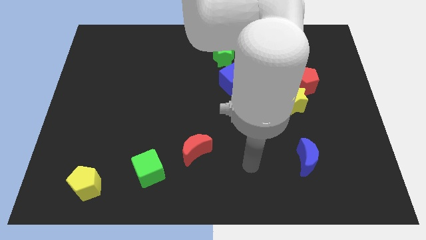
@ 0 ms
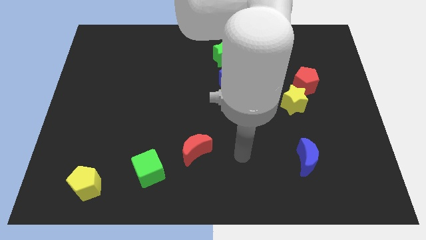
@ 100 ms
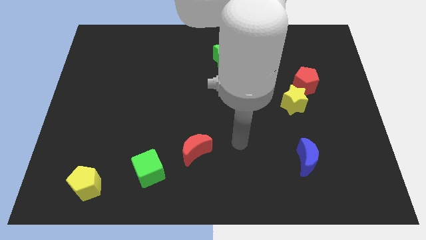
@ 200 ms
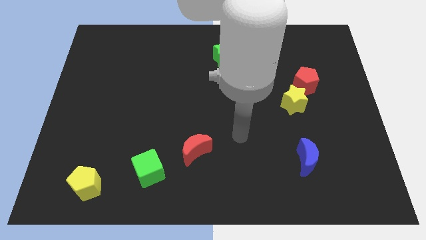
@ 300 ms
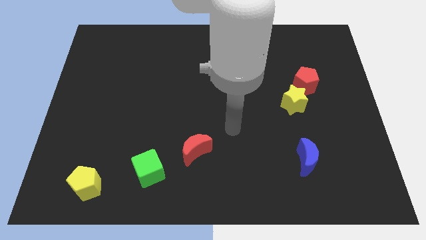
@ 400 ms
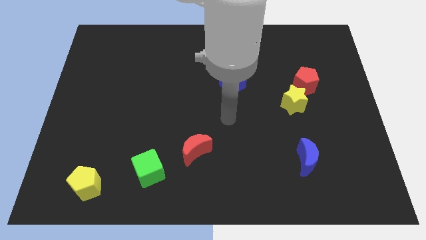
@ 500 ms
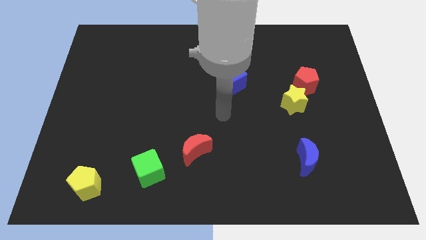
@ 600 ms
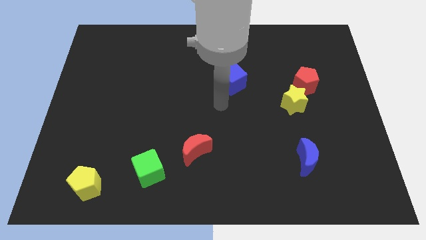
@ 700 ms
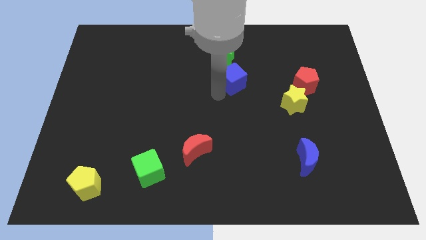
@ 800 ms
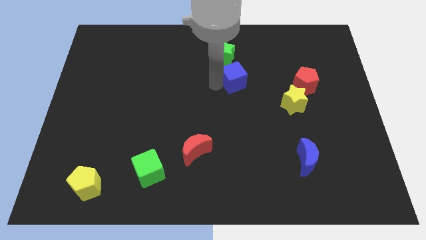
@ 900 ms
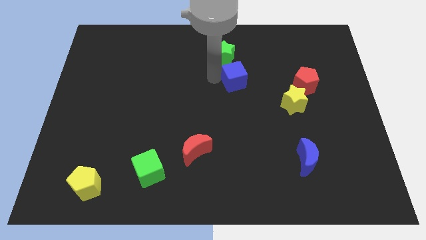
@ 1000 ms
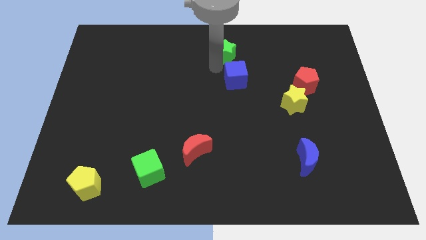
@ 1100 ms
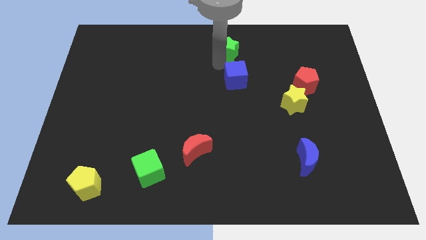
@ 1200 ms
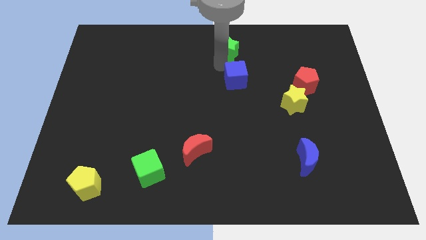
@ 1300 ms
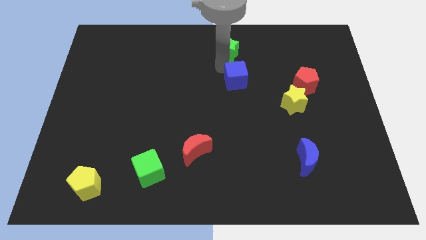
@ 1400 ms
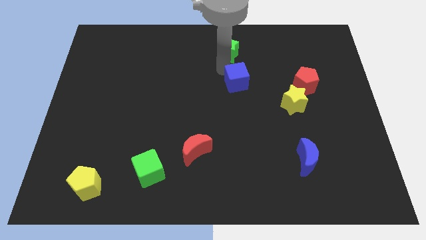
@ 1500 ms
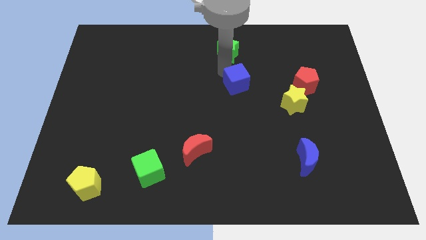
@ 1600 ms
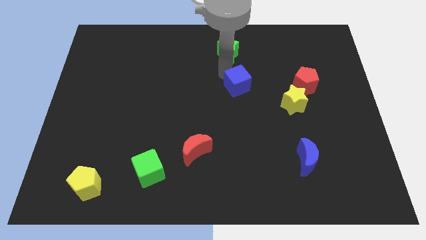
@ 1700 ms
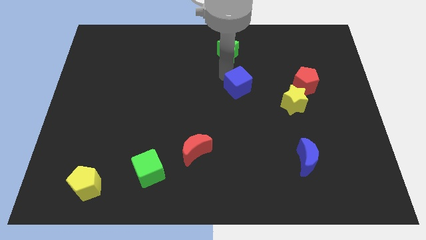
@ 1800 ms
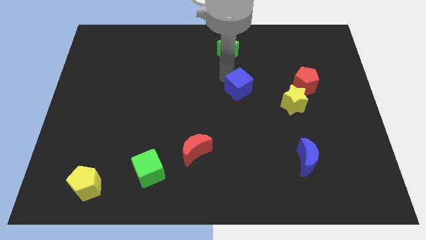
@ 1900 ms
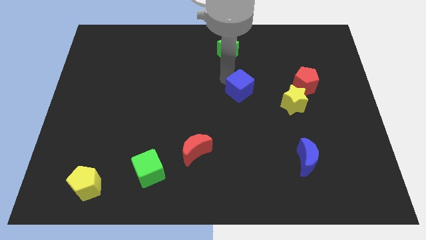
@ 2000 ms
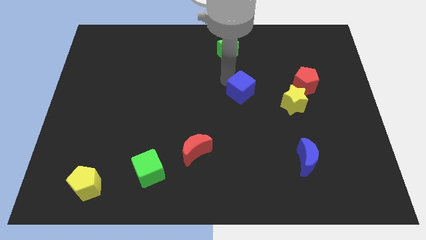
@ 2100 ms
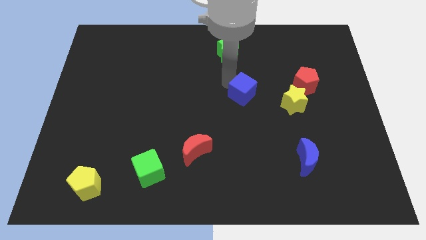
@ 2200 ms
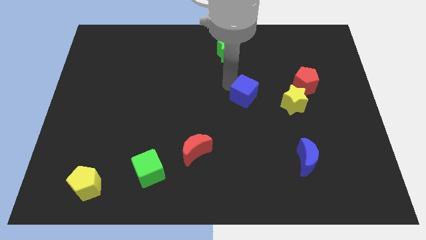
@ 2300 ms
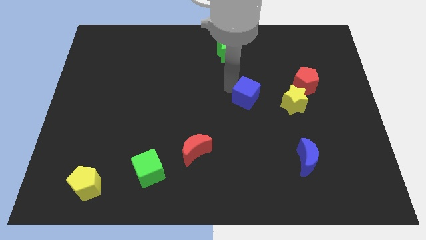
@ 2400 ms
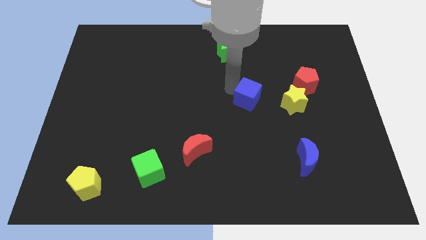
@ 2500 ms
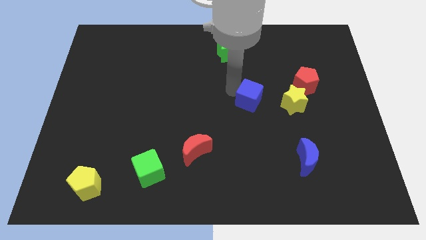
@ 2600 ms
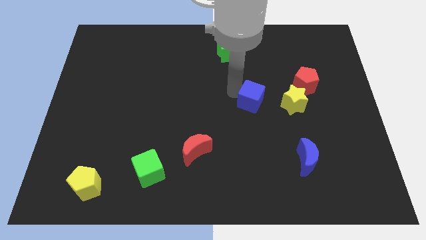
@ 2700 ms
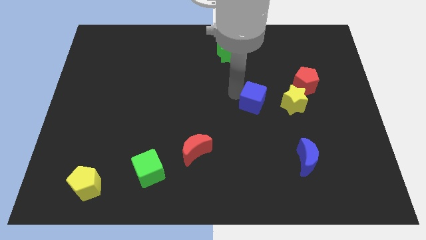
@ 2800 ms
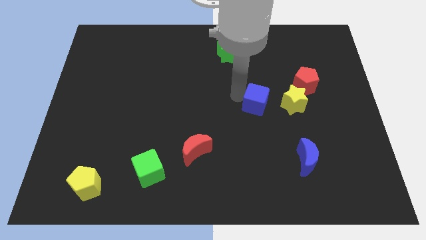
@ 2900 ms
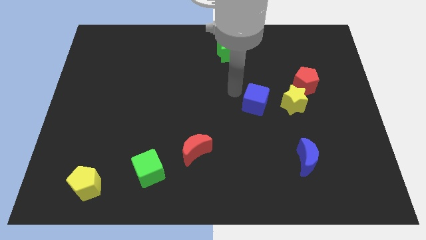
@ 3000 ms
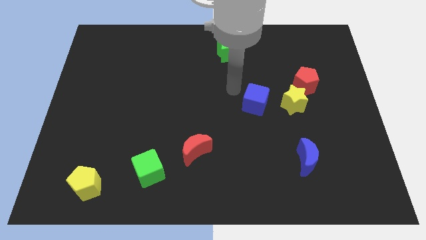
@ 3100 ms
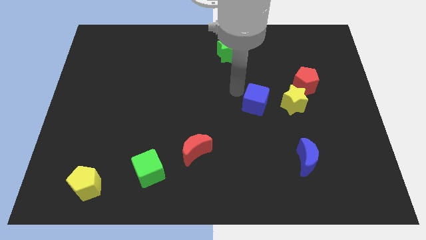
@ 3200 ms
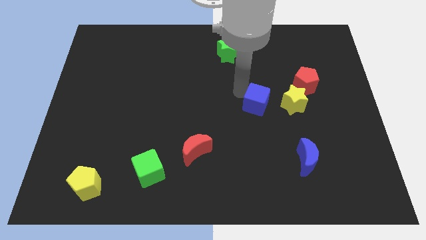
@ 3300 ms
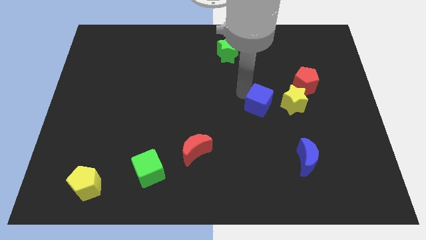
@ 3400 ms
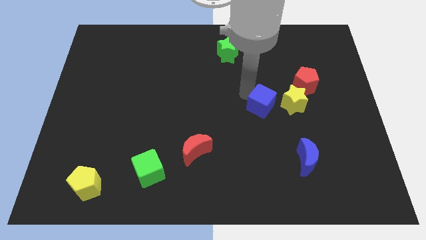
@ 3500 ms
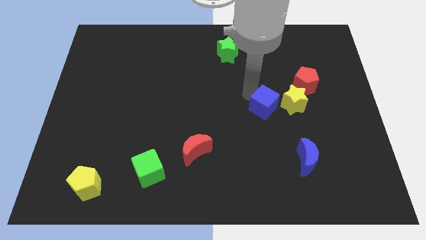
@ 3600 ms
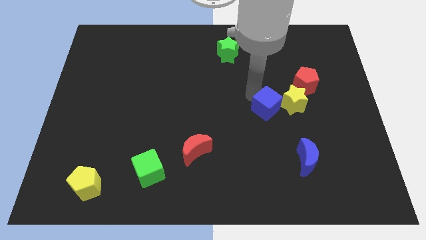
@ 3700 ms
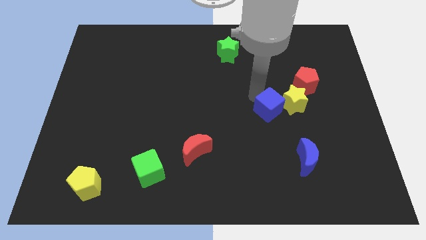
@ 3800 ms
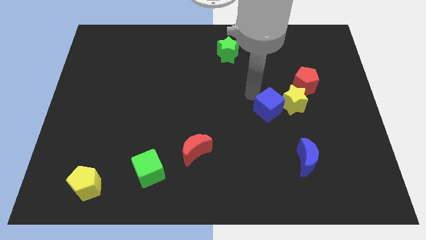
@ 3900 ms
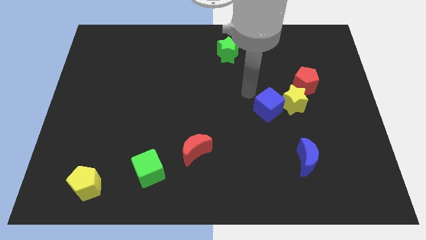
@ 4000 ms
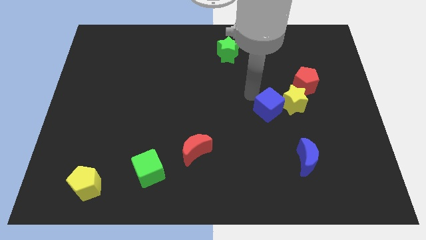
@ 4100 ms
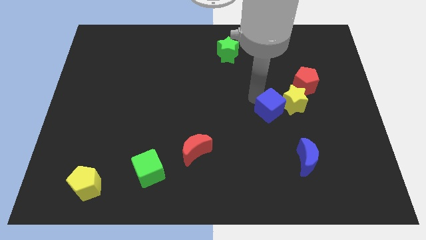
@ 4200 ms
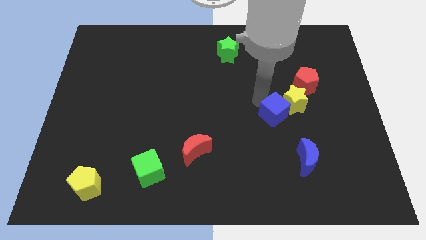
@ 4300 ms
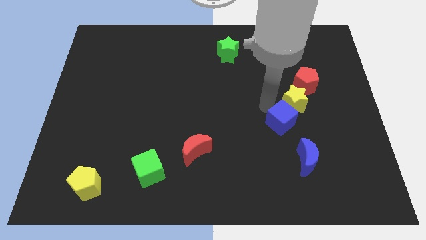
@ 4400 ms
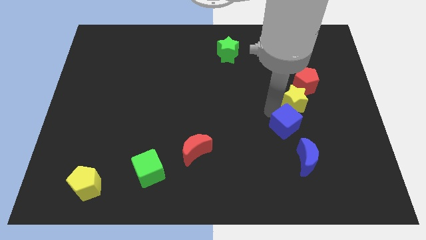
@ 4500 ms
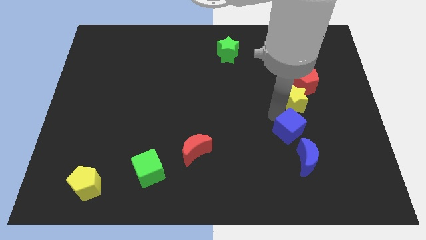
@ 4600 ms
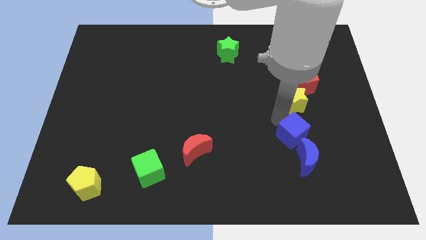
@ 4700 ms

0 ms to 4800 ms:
push the blue cube downwards and right

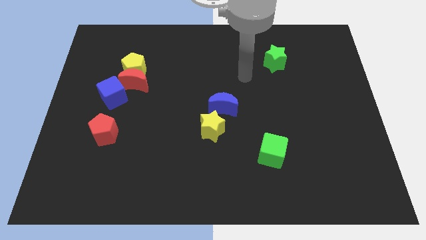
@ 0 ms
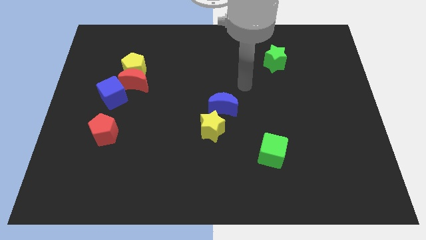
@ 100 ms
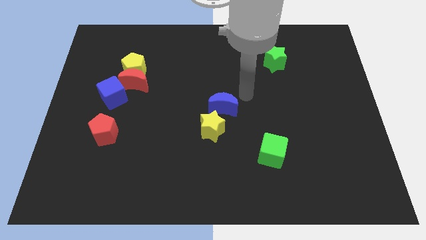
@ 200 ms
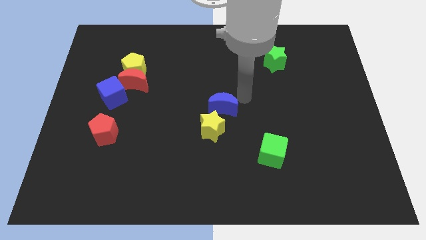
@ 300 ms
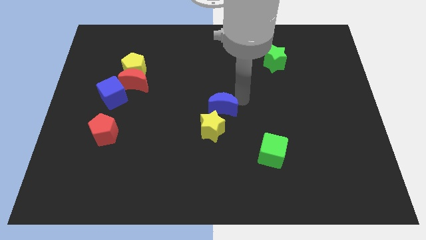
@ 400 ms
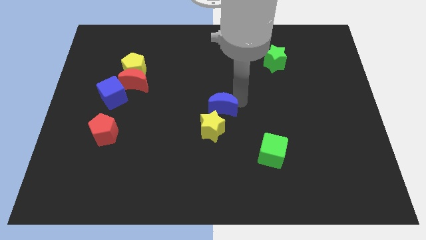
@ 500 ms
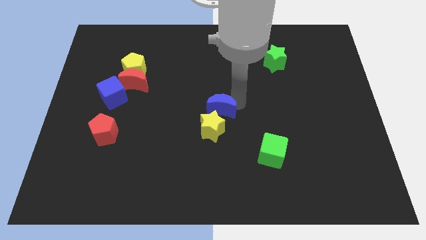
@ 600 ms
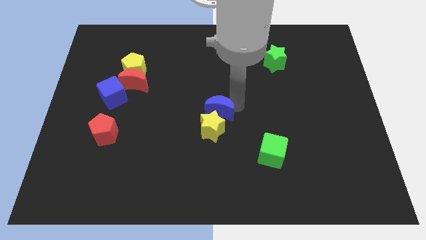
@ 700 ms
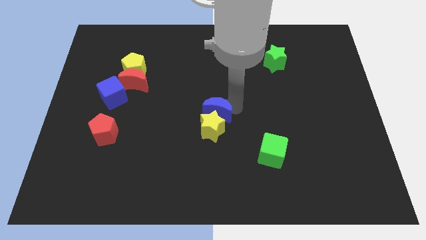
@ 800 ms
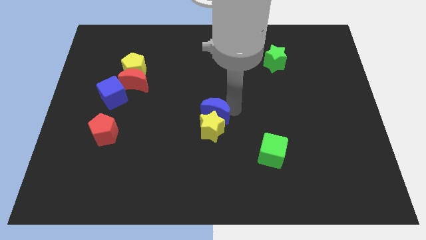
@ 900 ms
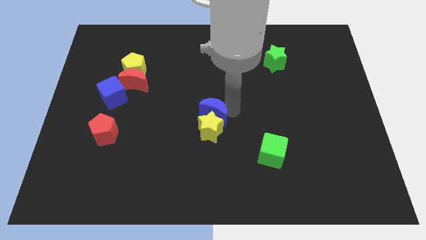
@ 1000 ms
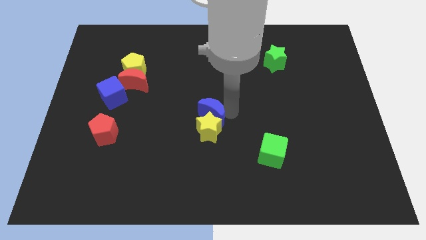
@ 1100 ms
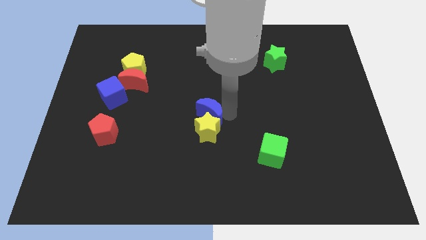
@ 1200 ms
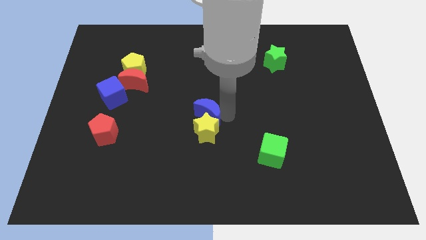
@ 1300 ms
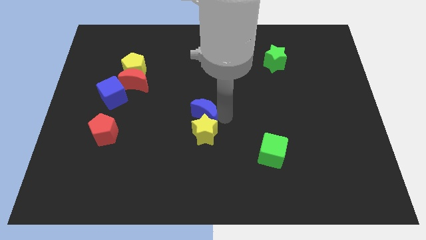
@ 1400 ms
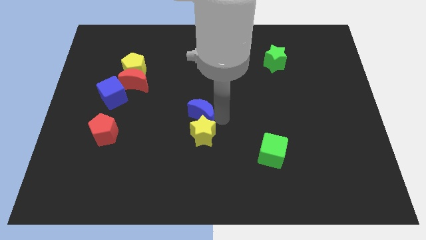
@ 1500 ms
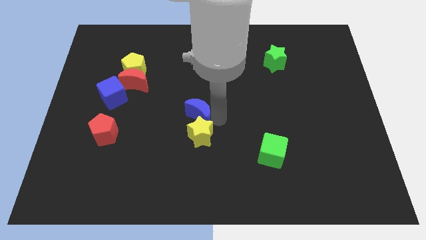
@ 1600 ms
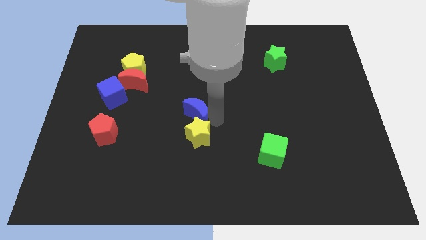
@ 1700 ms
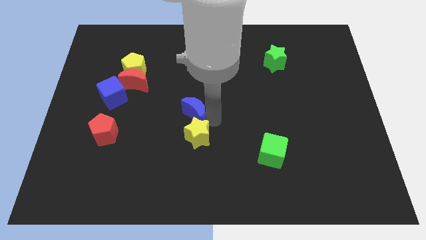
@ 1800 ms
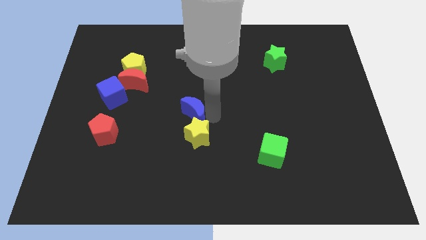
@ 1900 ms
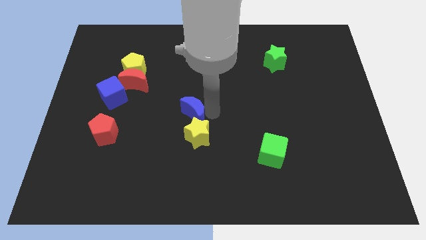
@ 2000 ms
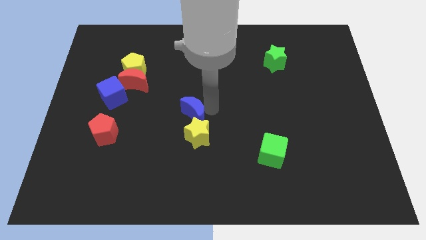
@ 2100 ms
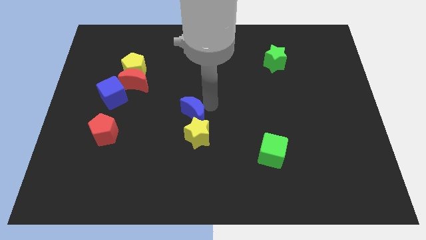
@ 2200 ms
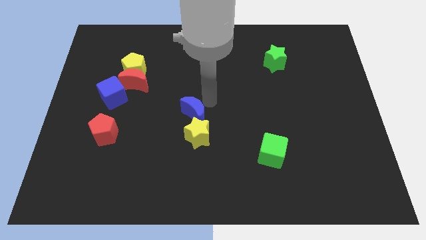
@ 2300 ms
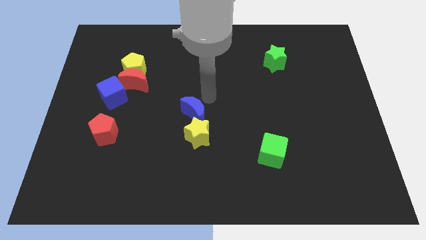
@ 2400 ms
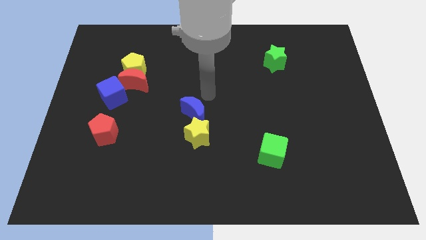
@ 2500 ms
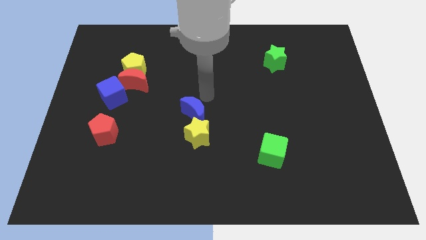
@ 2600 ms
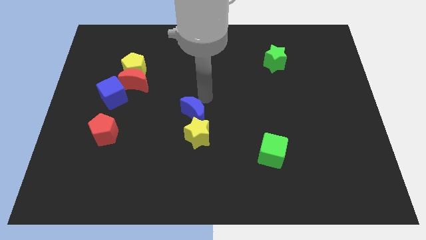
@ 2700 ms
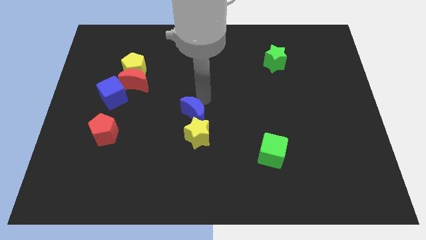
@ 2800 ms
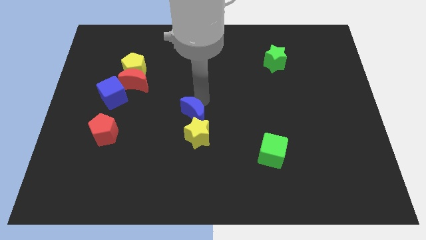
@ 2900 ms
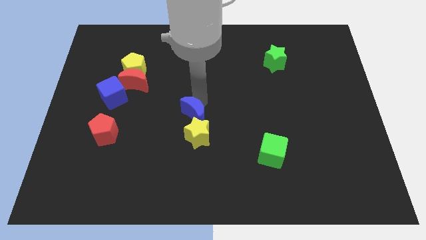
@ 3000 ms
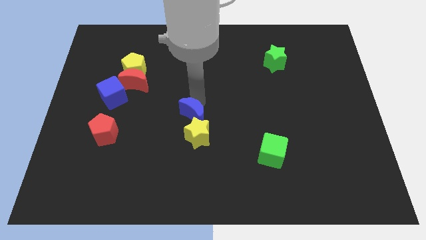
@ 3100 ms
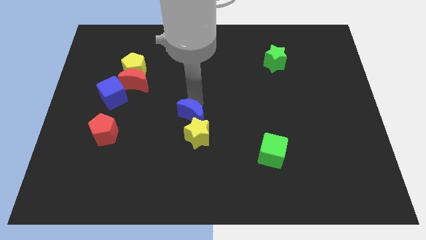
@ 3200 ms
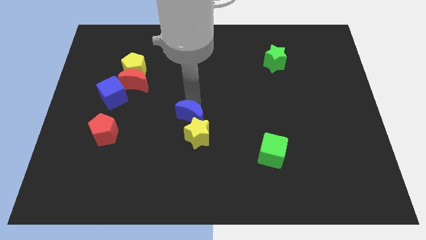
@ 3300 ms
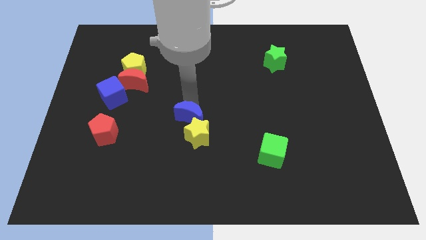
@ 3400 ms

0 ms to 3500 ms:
push the blue moon downwards and left a bit
